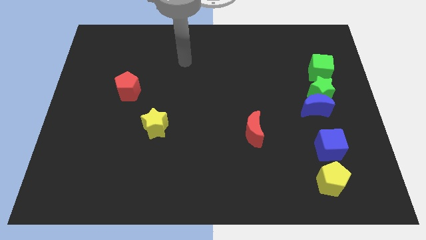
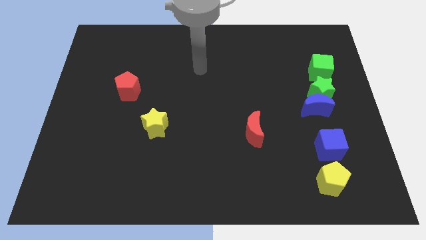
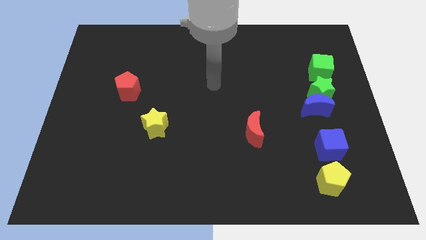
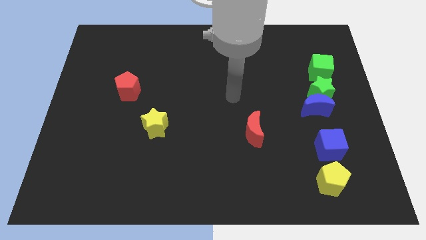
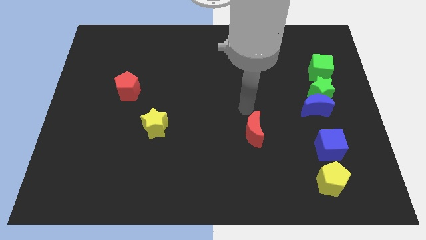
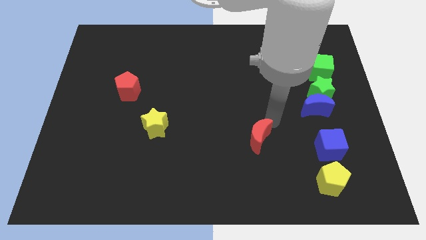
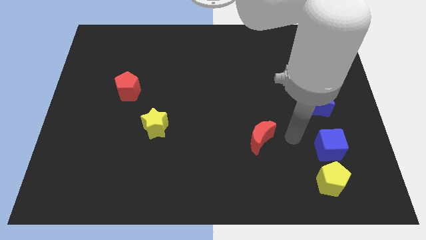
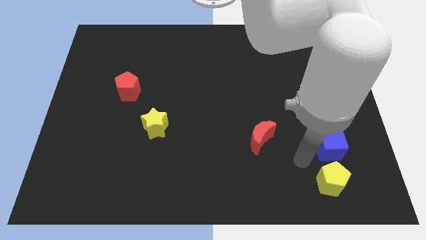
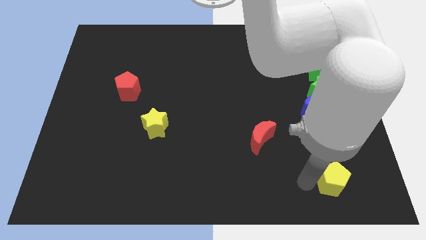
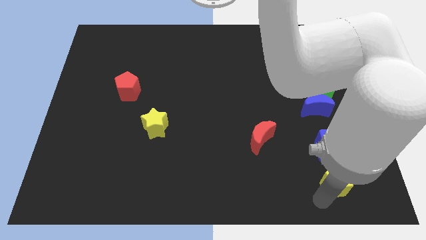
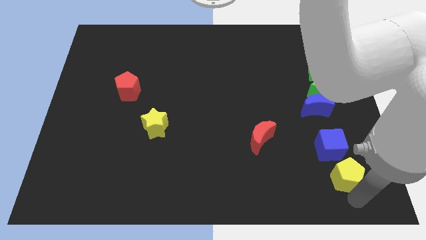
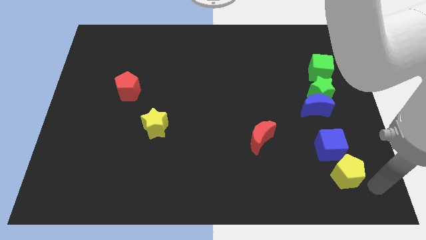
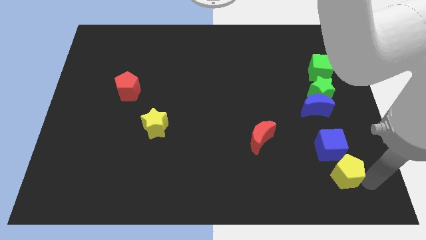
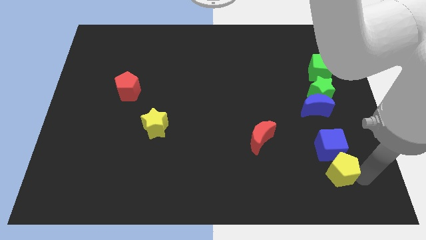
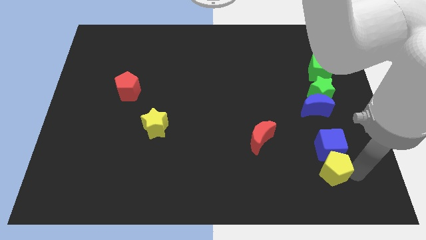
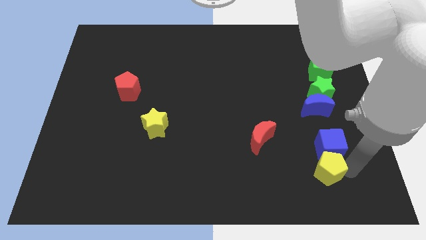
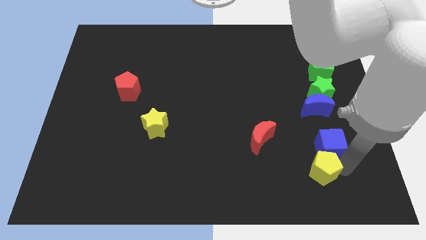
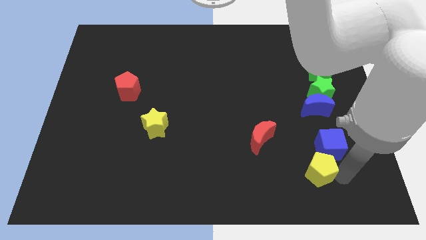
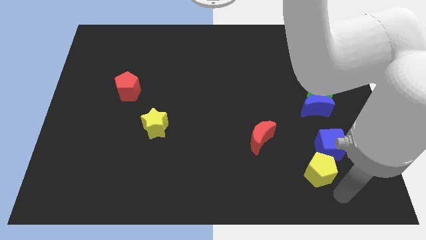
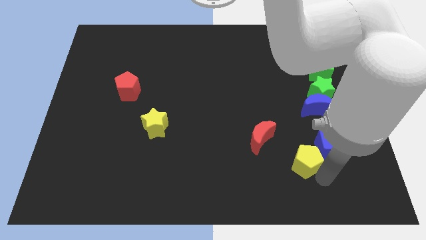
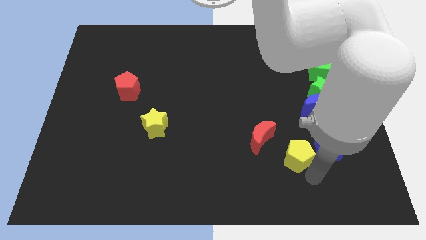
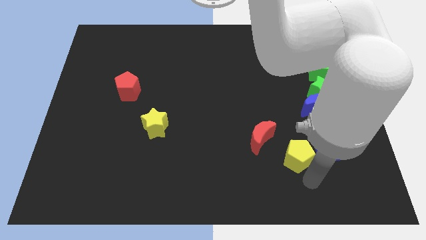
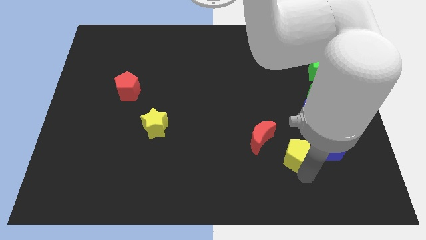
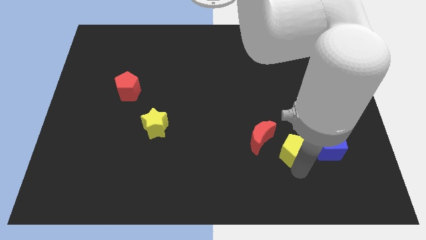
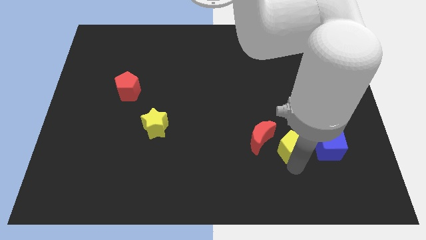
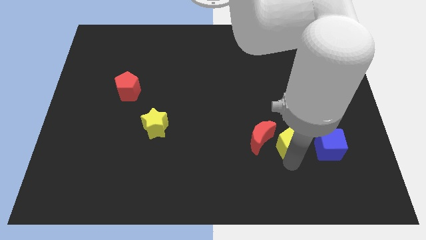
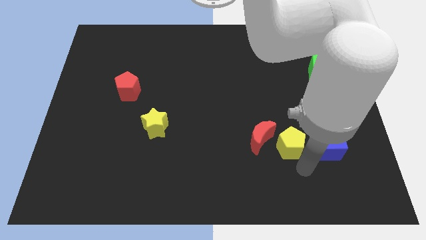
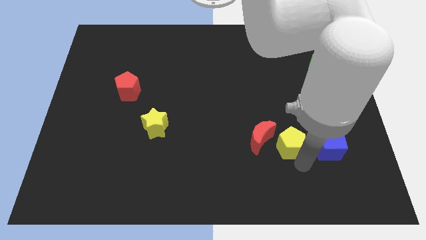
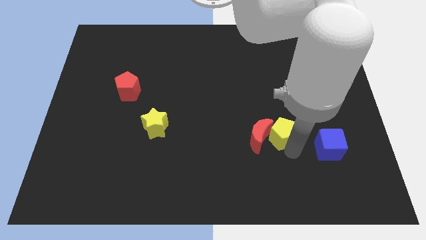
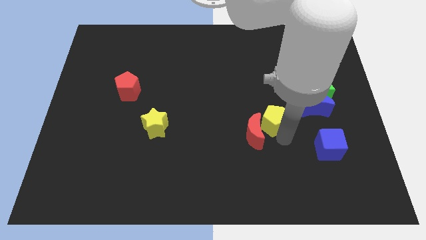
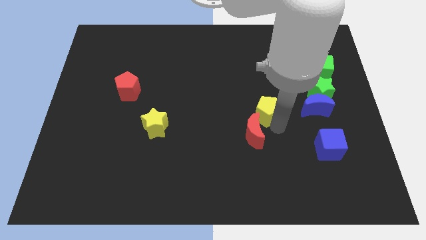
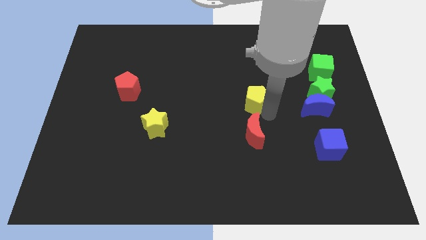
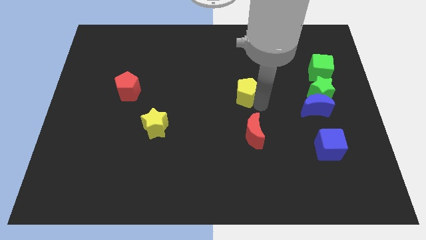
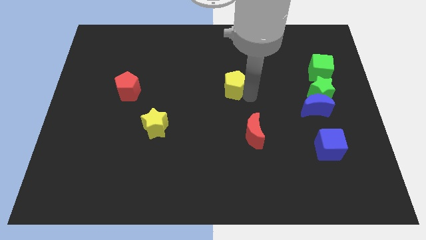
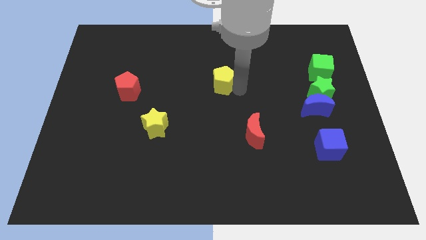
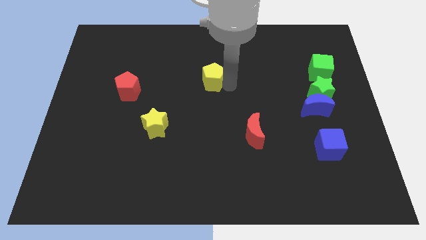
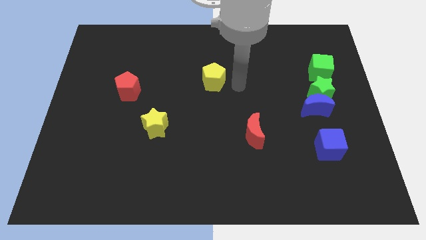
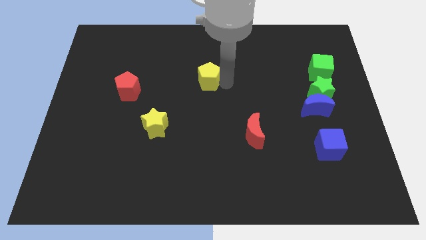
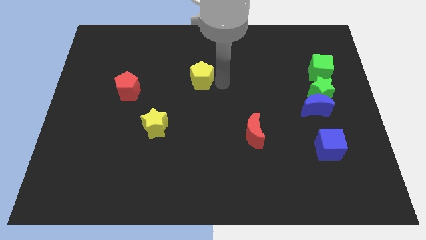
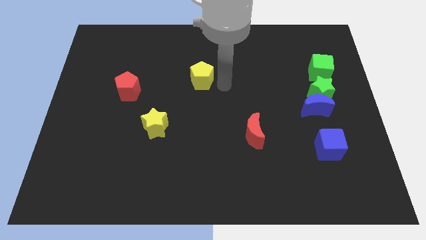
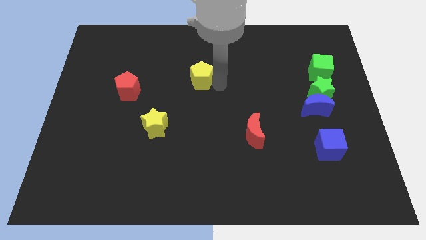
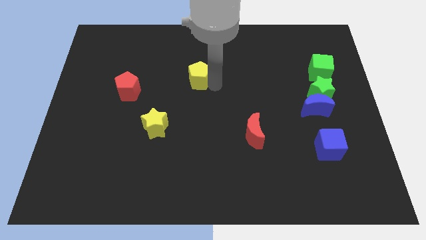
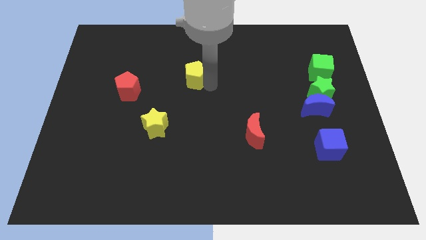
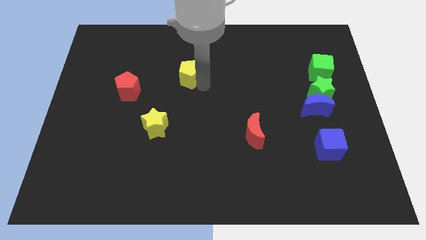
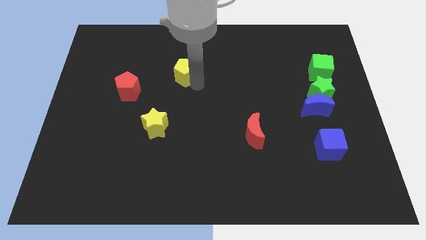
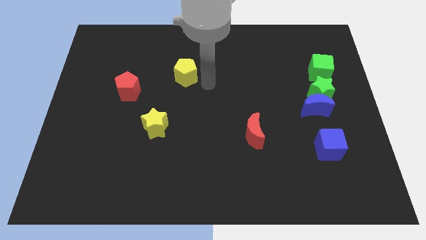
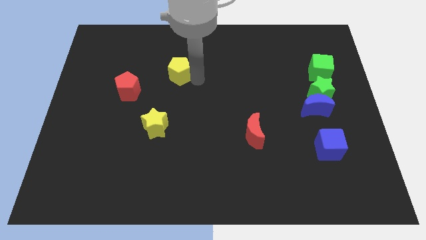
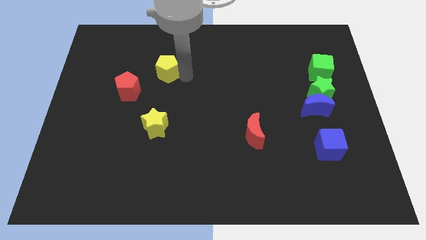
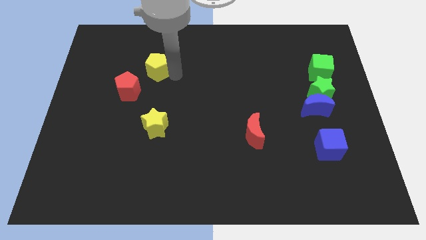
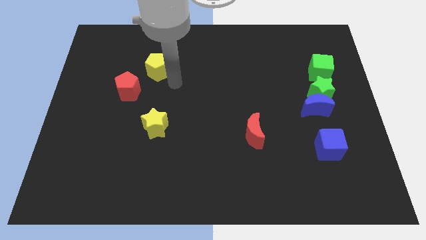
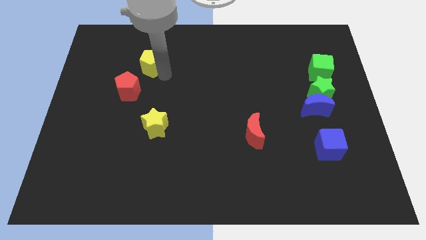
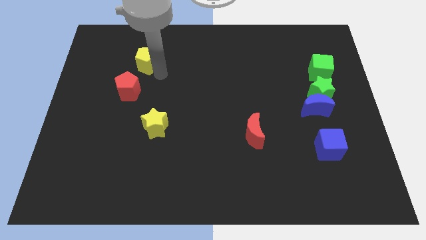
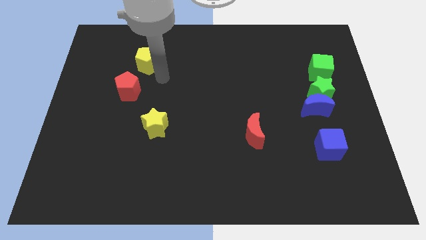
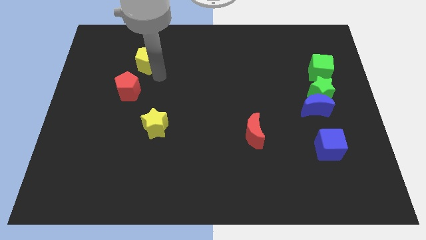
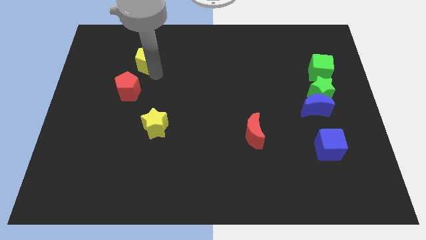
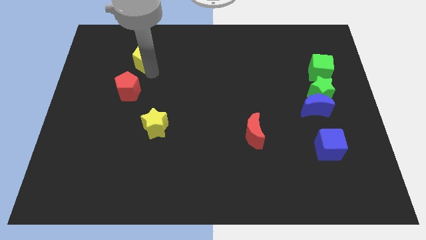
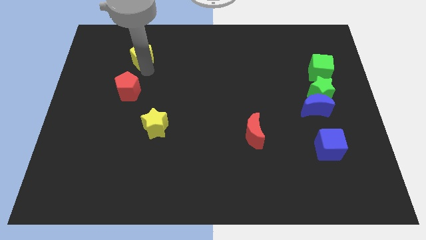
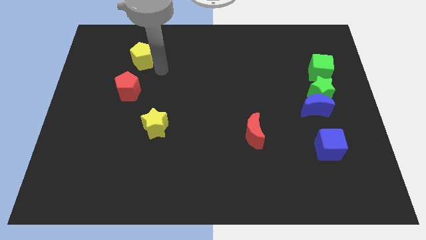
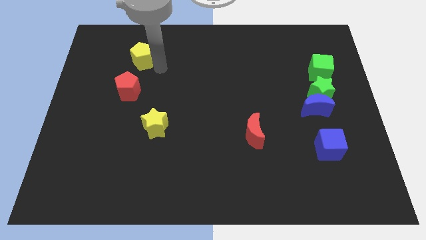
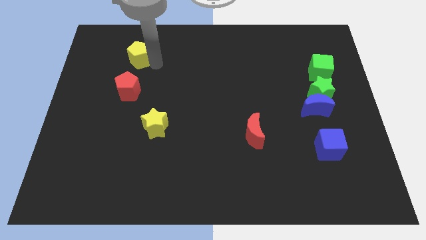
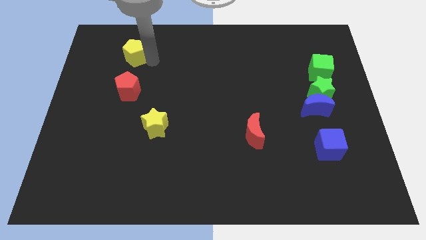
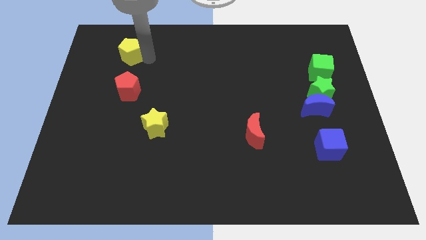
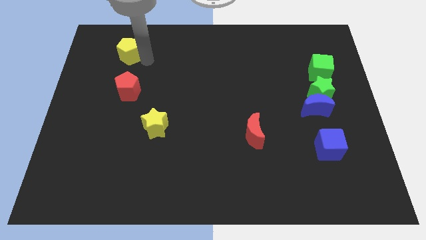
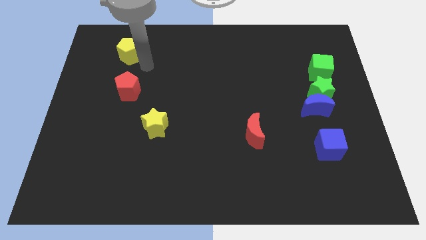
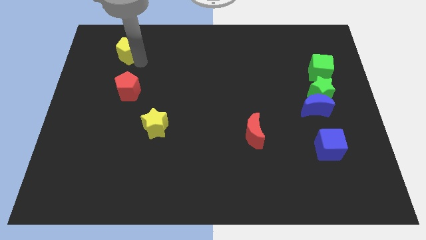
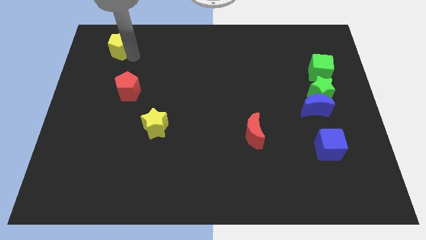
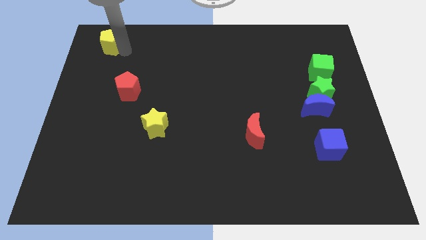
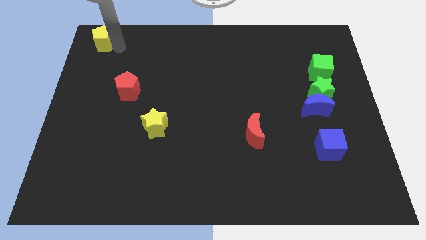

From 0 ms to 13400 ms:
push the yellow pentagon to the top left
